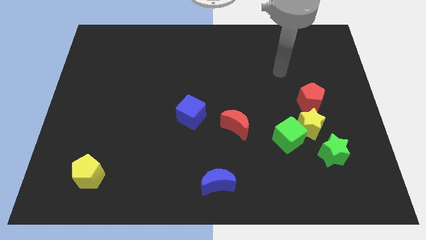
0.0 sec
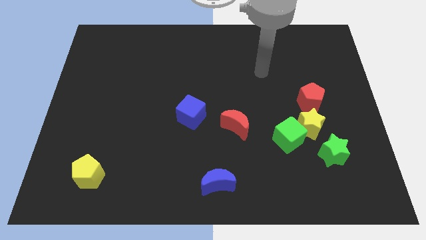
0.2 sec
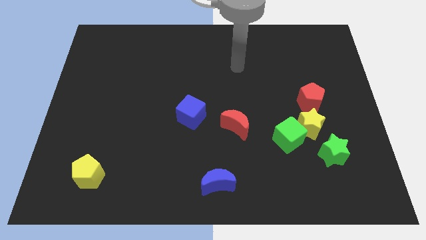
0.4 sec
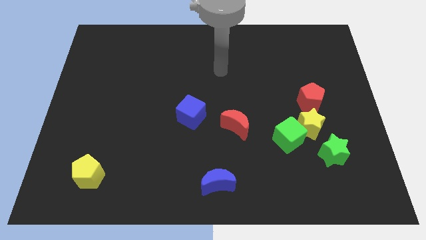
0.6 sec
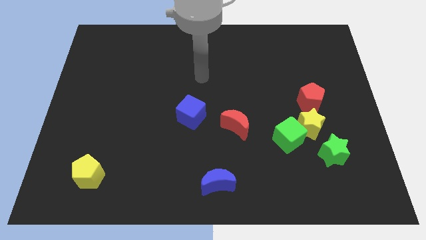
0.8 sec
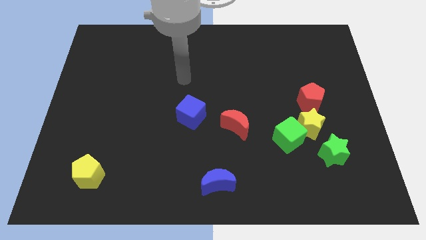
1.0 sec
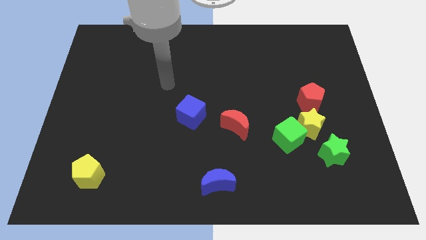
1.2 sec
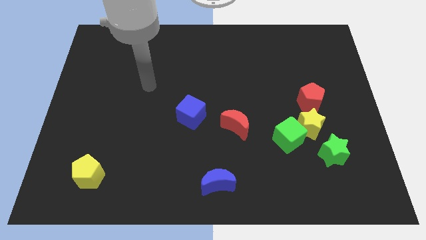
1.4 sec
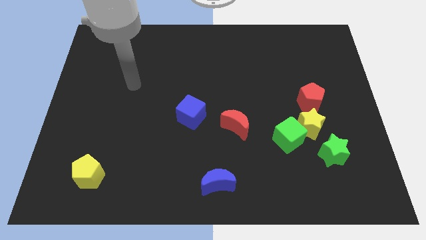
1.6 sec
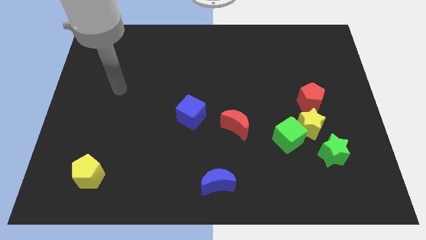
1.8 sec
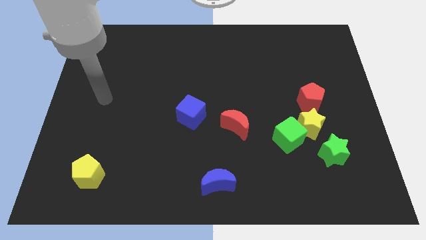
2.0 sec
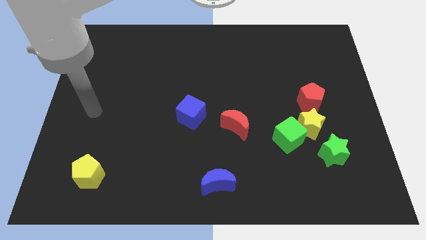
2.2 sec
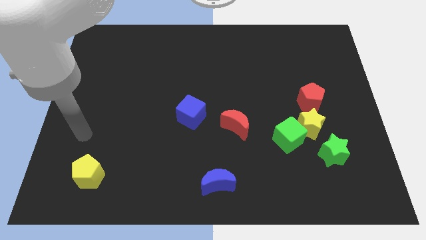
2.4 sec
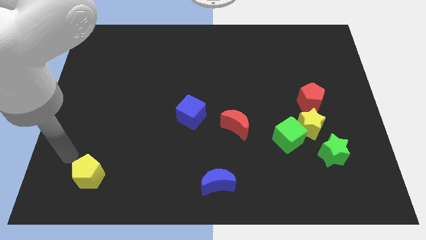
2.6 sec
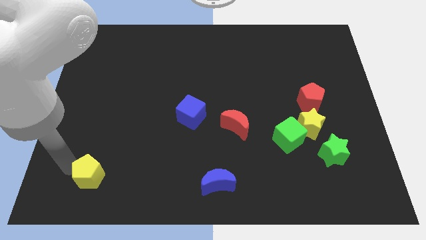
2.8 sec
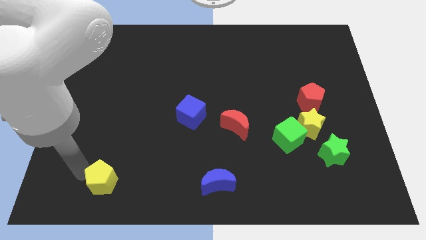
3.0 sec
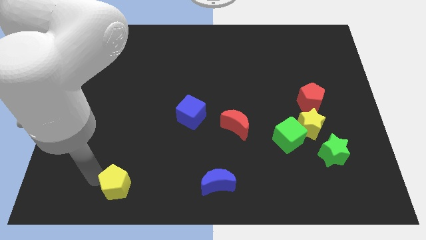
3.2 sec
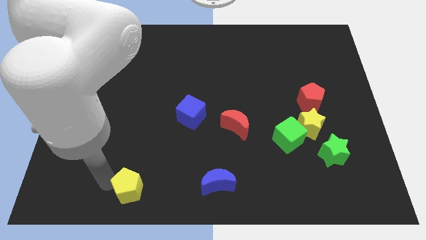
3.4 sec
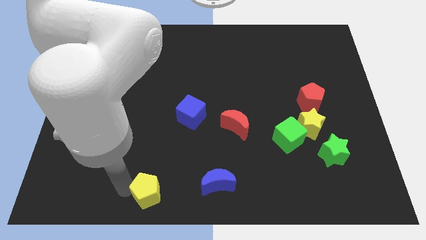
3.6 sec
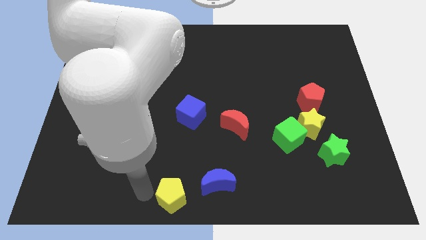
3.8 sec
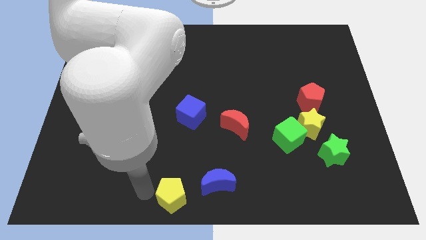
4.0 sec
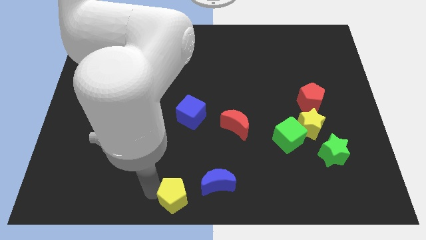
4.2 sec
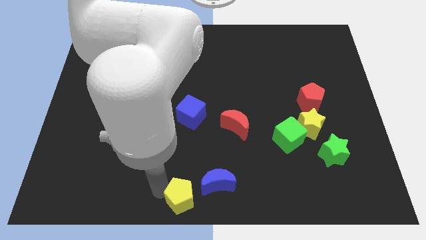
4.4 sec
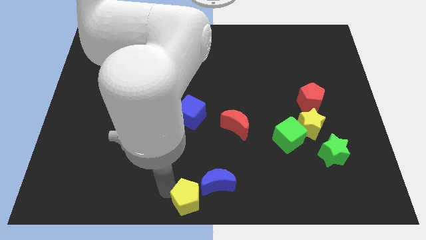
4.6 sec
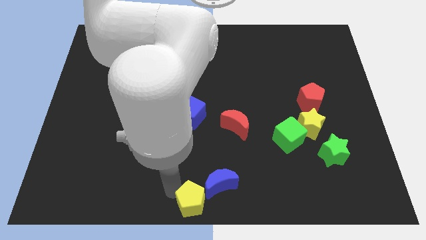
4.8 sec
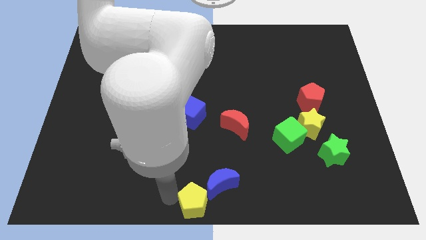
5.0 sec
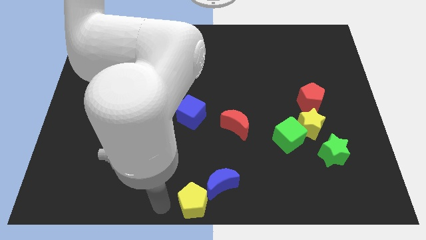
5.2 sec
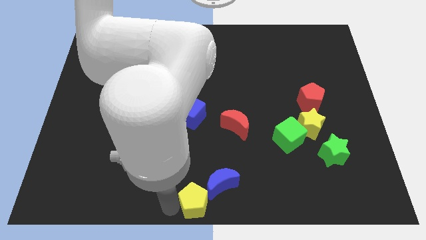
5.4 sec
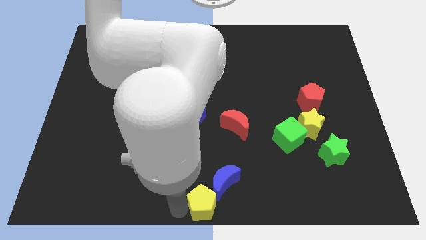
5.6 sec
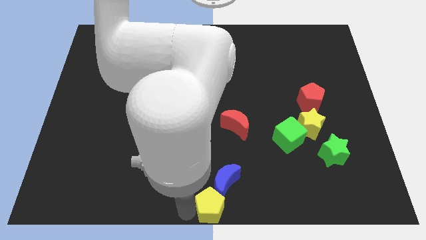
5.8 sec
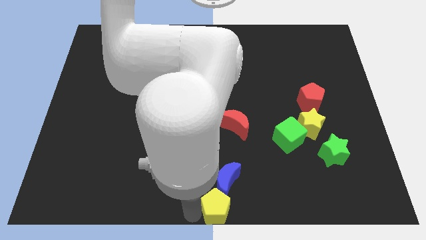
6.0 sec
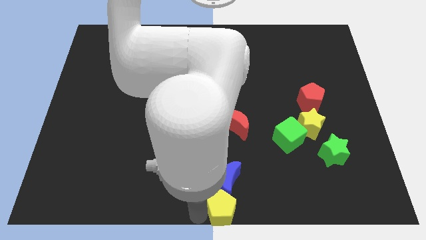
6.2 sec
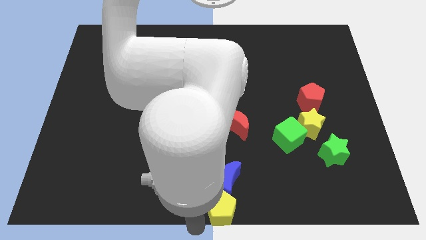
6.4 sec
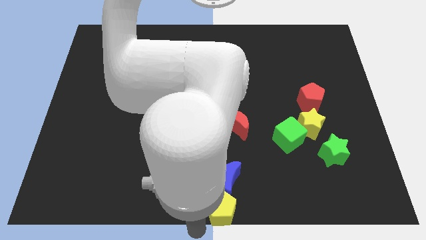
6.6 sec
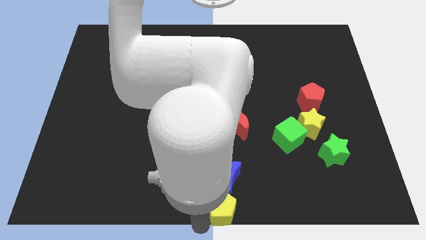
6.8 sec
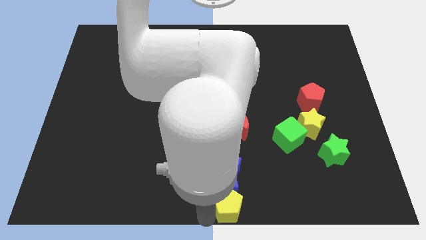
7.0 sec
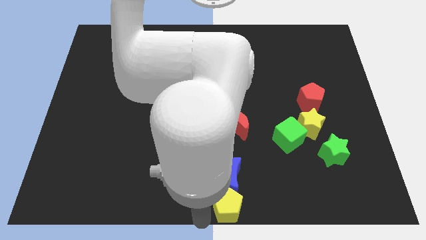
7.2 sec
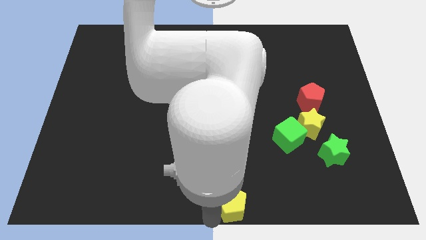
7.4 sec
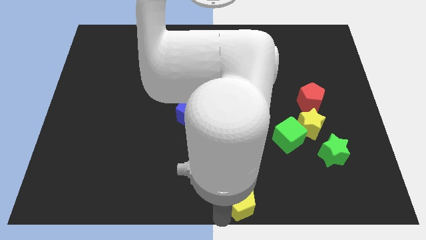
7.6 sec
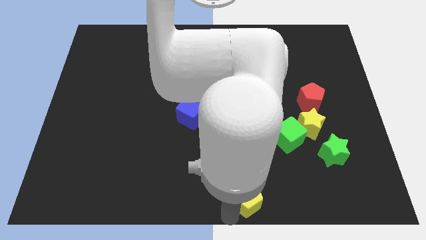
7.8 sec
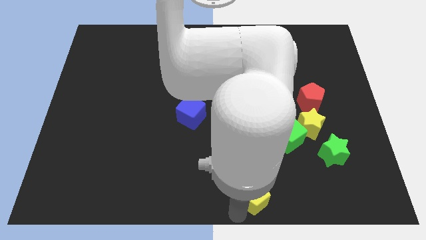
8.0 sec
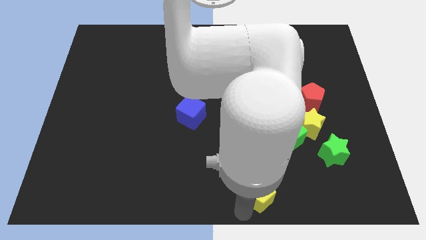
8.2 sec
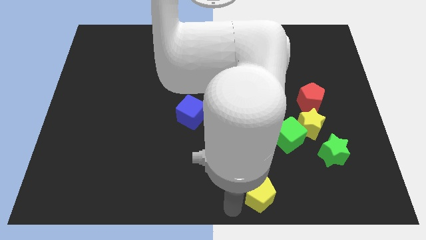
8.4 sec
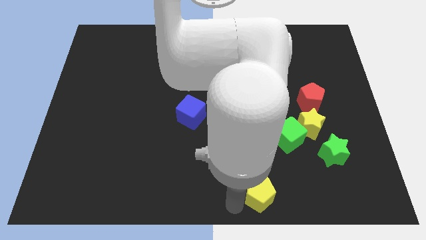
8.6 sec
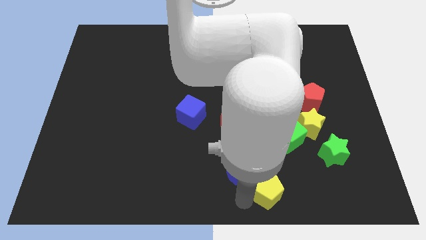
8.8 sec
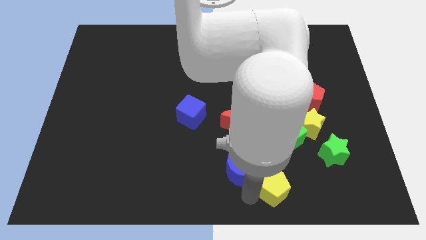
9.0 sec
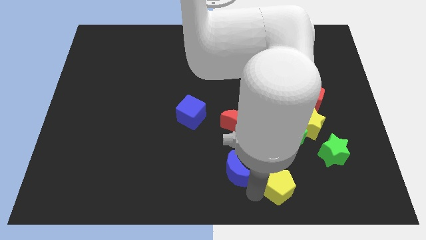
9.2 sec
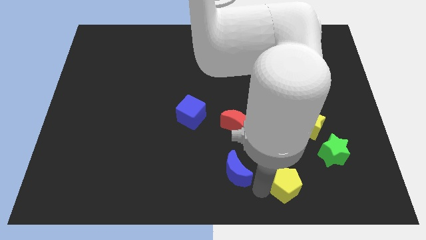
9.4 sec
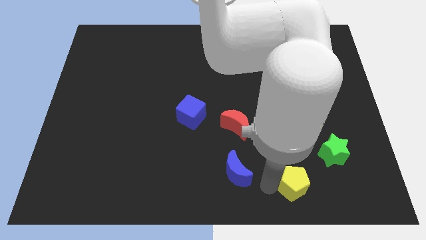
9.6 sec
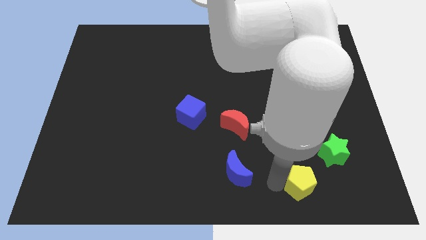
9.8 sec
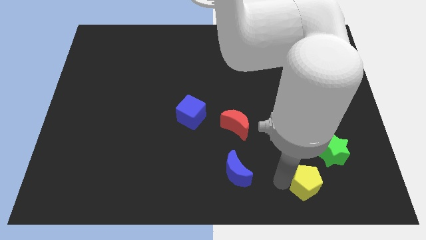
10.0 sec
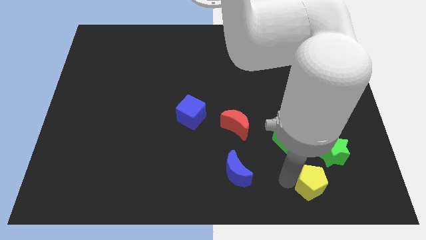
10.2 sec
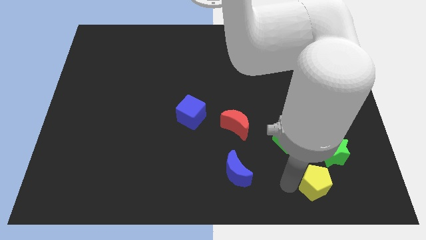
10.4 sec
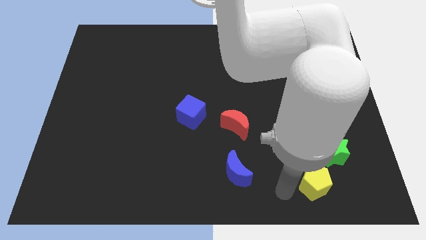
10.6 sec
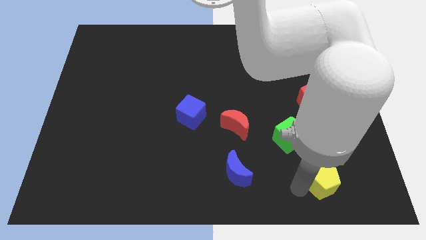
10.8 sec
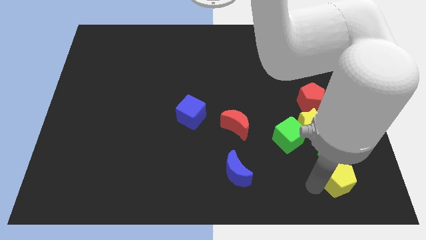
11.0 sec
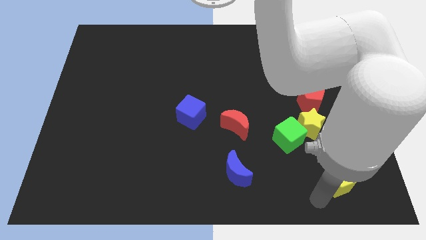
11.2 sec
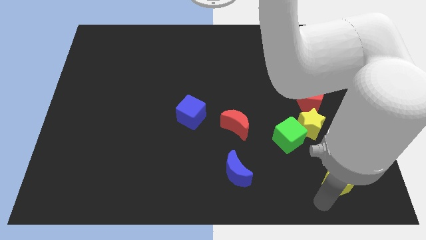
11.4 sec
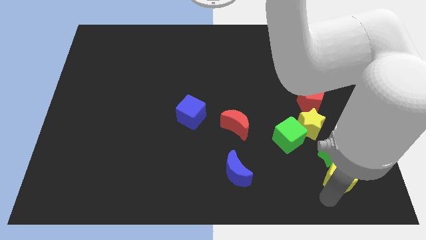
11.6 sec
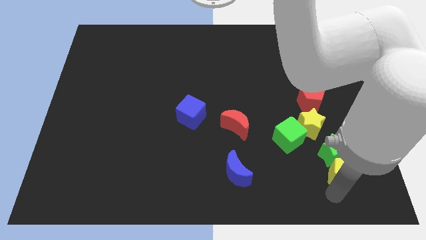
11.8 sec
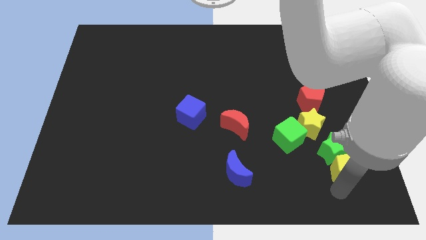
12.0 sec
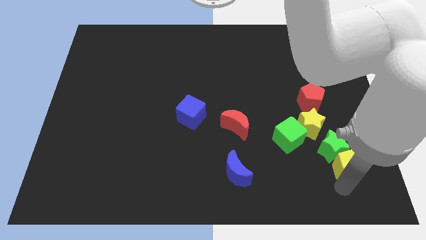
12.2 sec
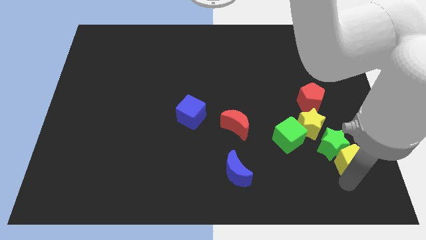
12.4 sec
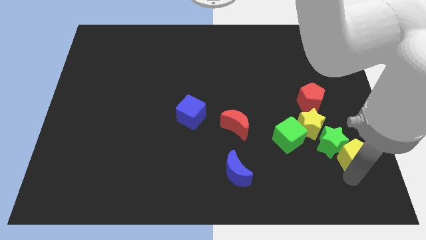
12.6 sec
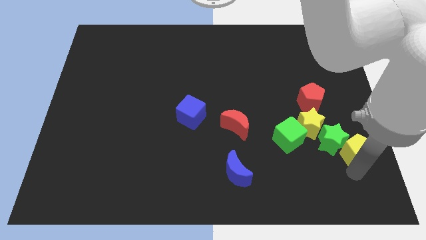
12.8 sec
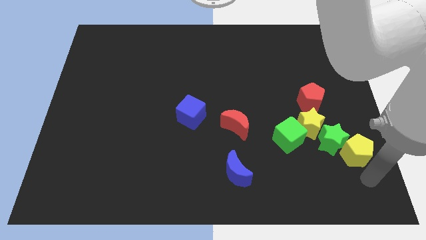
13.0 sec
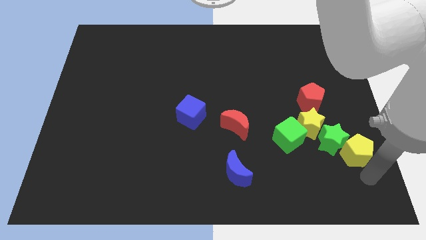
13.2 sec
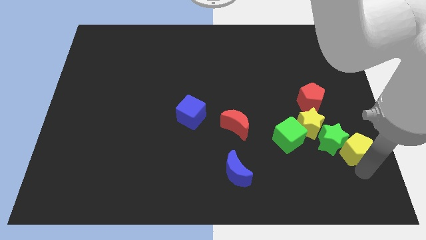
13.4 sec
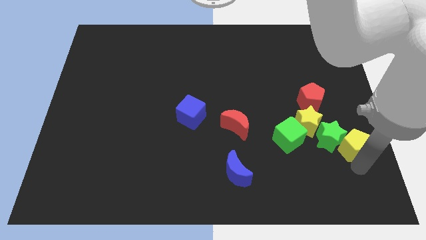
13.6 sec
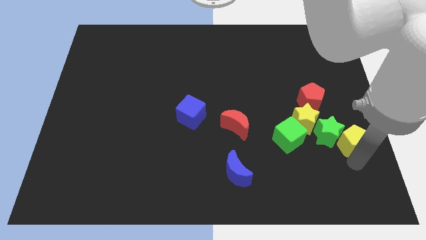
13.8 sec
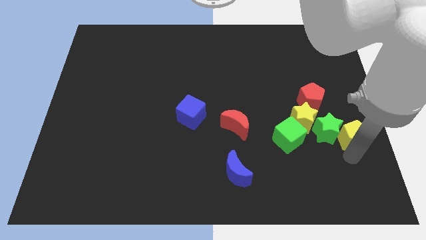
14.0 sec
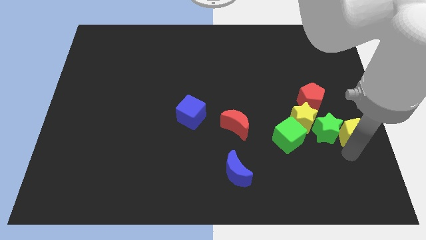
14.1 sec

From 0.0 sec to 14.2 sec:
push the yellow pentagon to the bottom right of the red pentagon

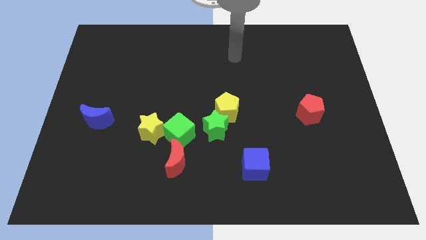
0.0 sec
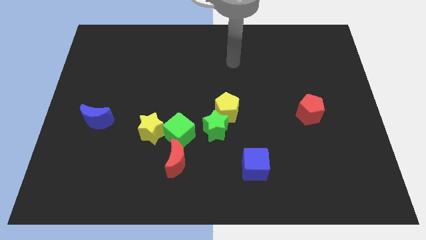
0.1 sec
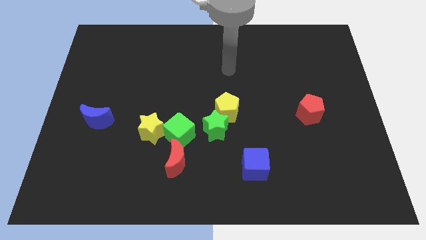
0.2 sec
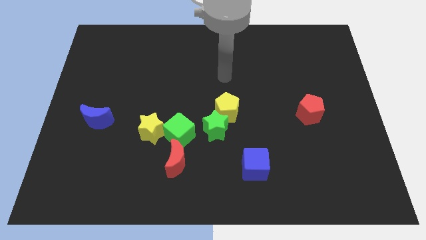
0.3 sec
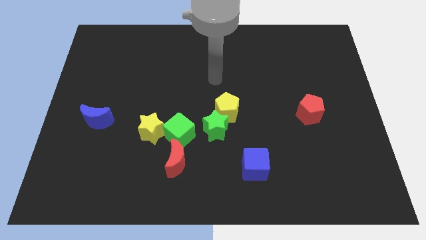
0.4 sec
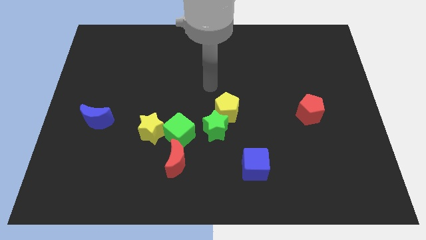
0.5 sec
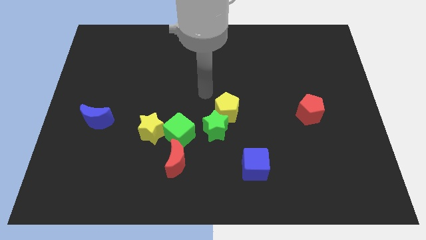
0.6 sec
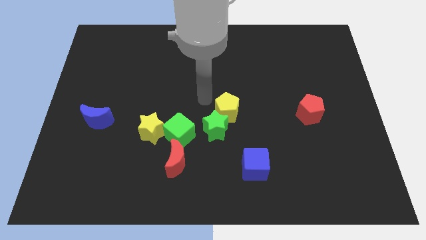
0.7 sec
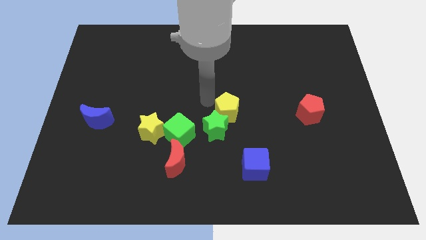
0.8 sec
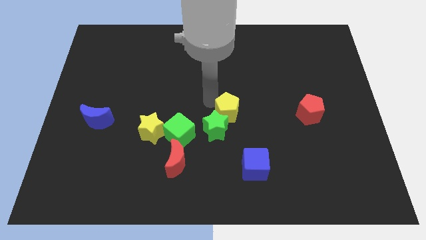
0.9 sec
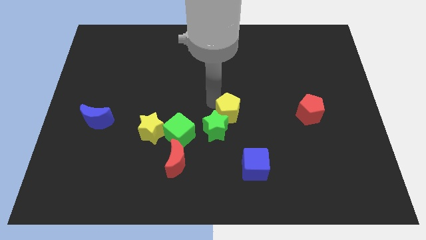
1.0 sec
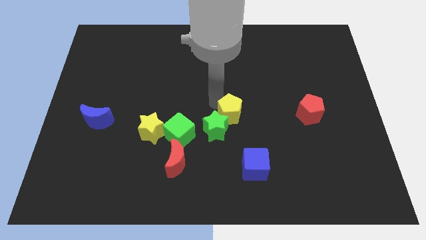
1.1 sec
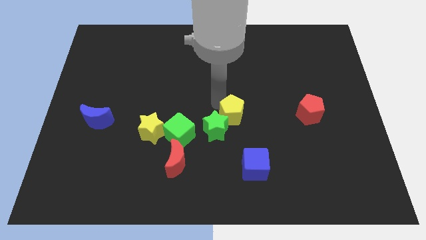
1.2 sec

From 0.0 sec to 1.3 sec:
put the yellow pentagon just right of the green star
